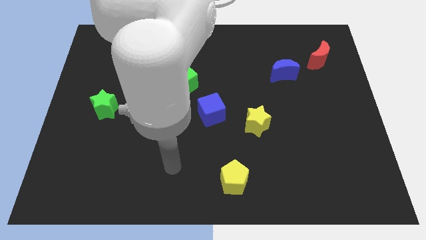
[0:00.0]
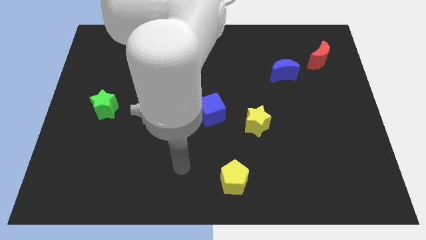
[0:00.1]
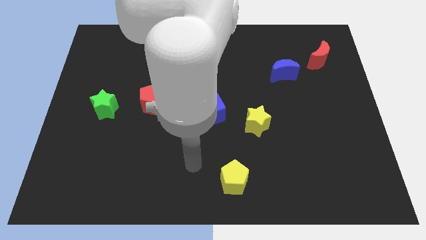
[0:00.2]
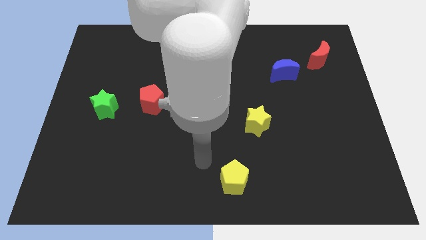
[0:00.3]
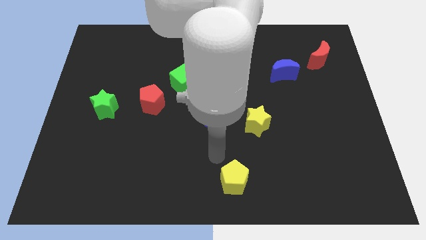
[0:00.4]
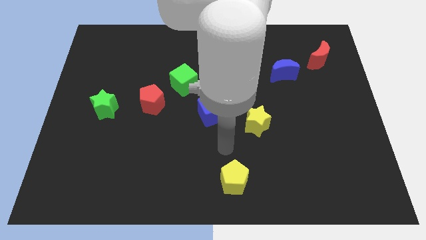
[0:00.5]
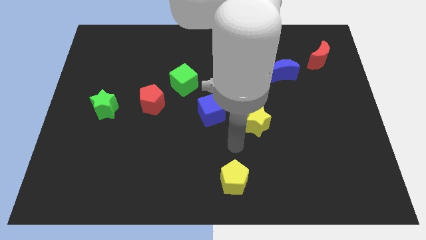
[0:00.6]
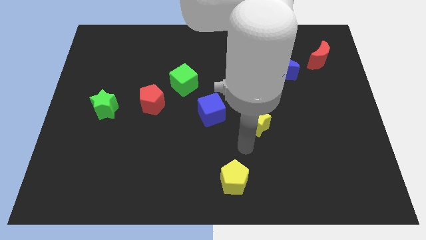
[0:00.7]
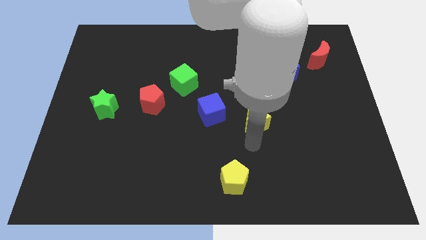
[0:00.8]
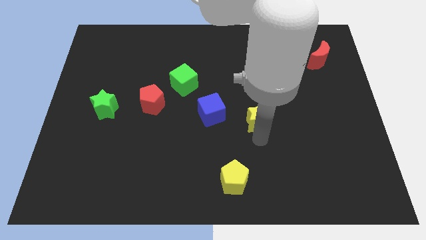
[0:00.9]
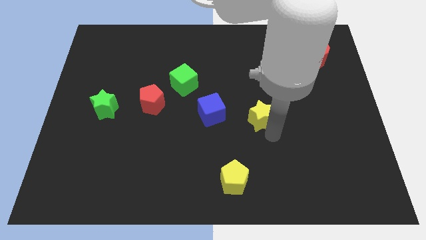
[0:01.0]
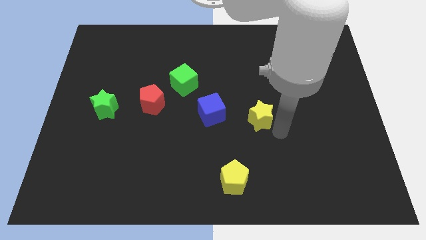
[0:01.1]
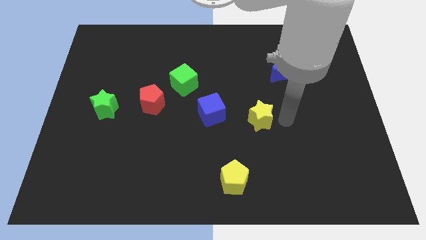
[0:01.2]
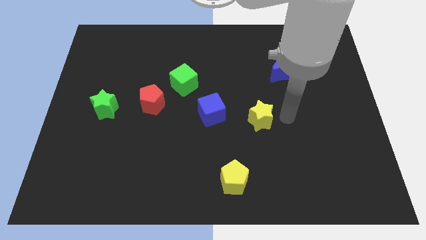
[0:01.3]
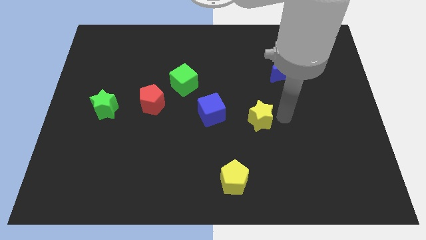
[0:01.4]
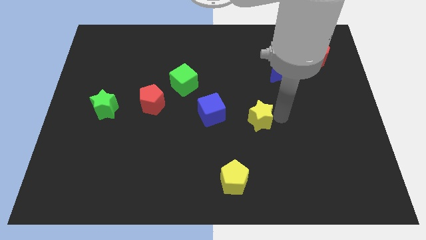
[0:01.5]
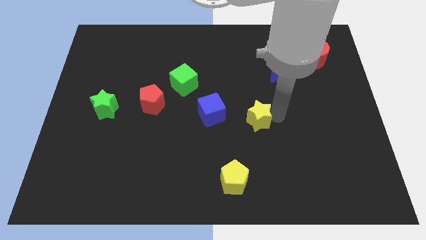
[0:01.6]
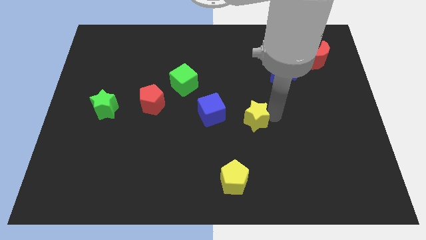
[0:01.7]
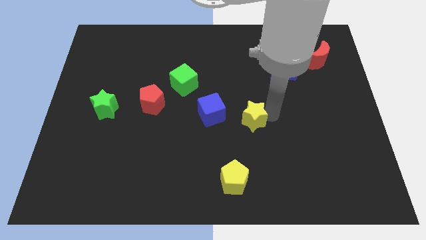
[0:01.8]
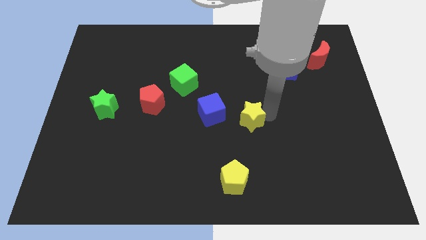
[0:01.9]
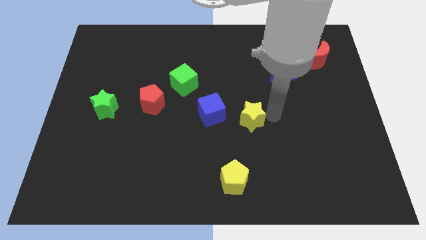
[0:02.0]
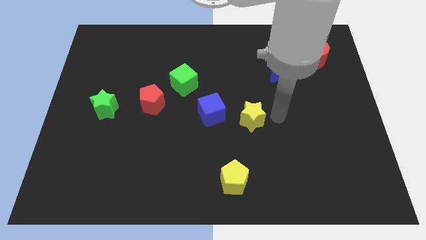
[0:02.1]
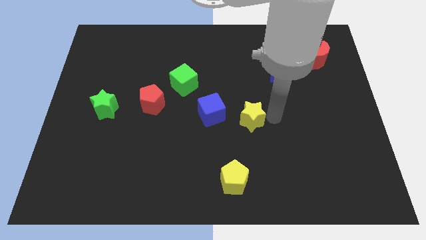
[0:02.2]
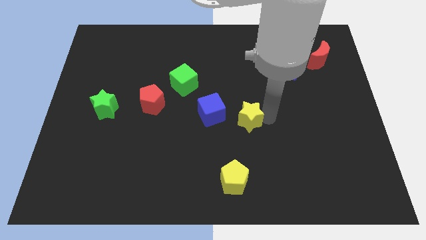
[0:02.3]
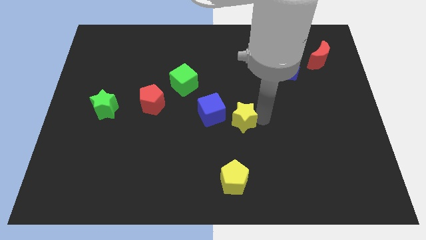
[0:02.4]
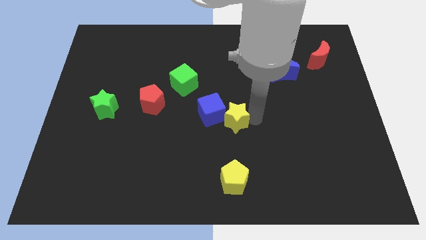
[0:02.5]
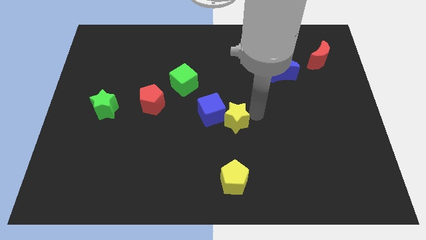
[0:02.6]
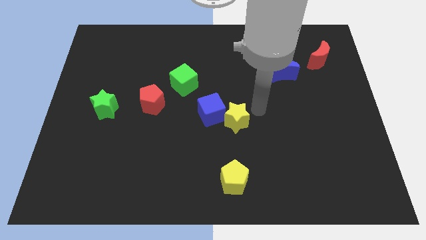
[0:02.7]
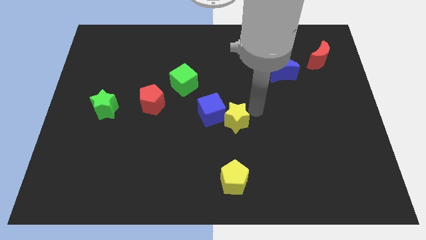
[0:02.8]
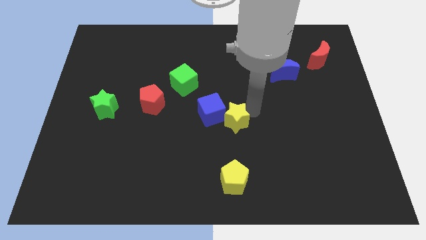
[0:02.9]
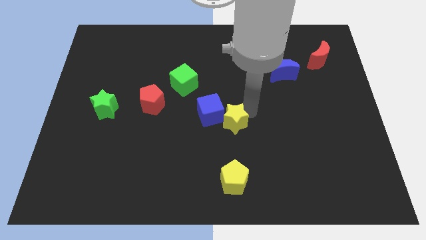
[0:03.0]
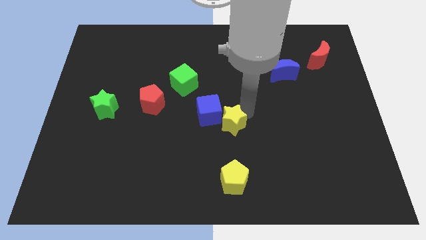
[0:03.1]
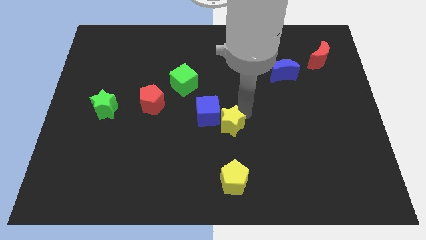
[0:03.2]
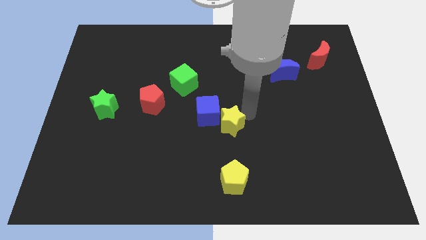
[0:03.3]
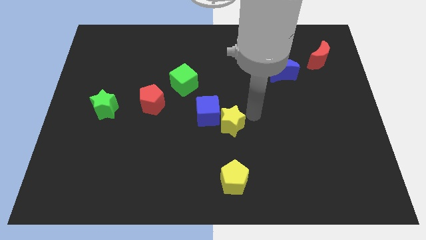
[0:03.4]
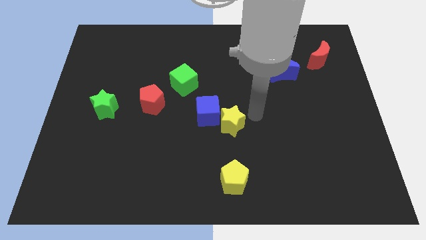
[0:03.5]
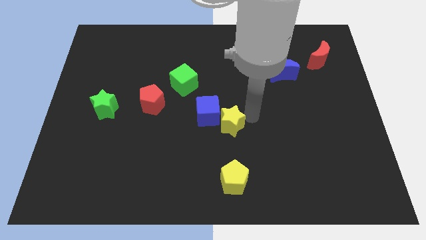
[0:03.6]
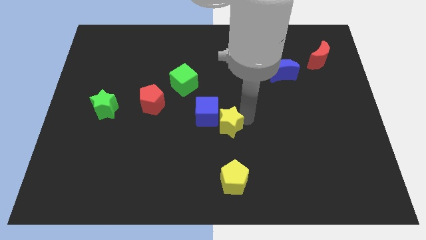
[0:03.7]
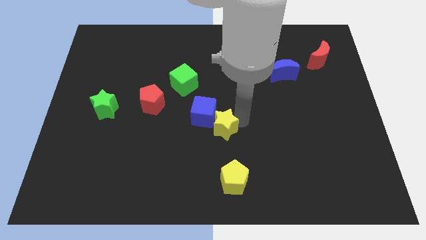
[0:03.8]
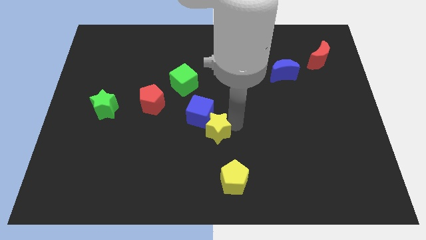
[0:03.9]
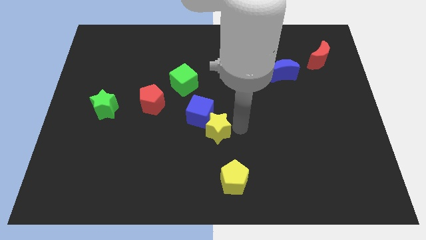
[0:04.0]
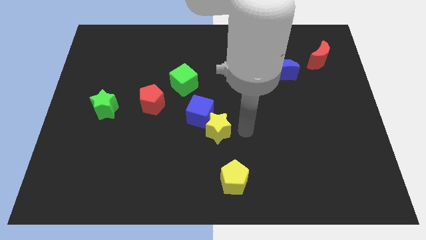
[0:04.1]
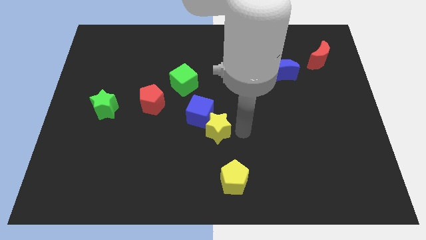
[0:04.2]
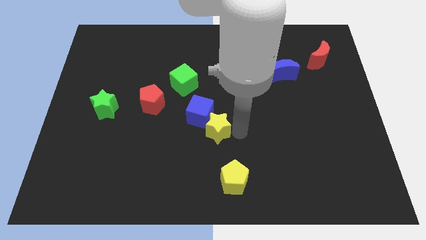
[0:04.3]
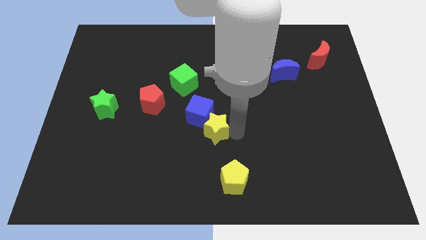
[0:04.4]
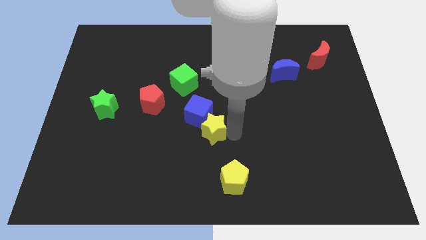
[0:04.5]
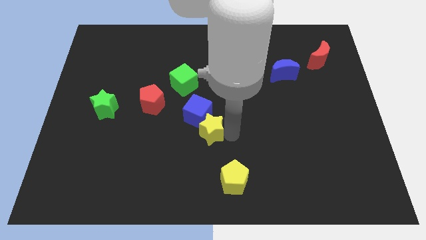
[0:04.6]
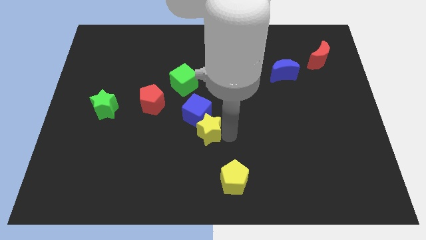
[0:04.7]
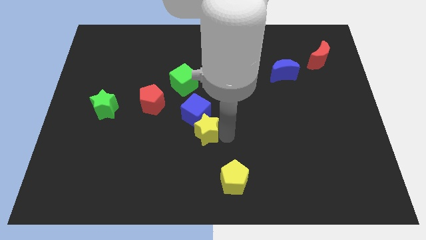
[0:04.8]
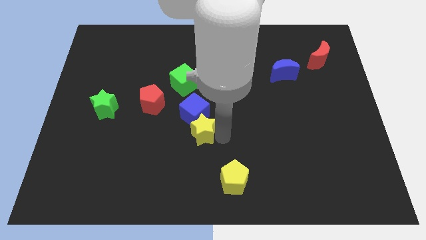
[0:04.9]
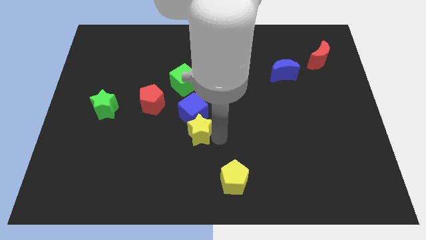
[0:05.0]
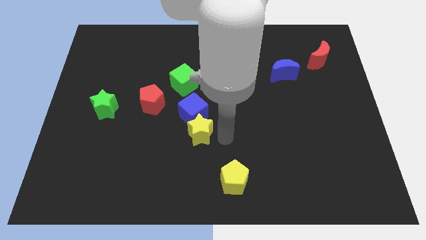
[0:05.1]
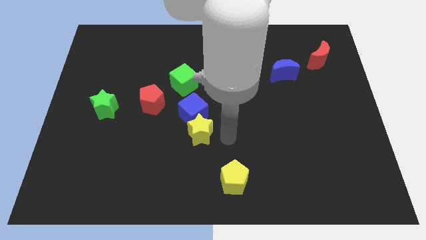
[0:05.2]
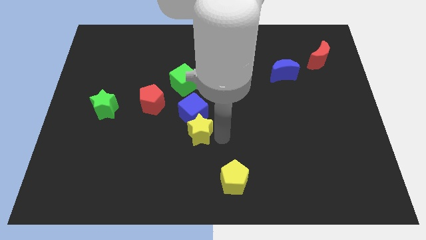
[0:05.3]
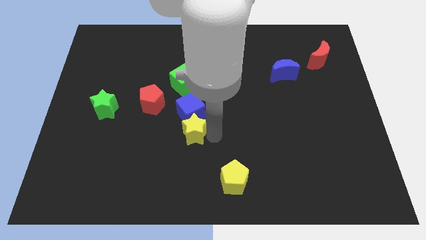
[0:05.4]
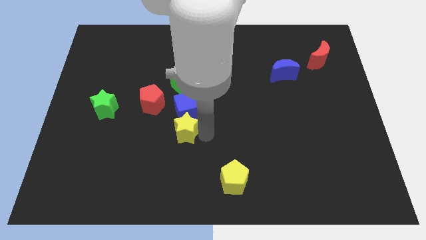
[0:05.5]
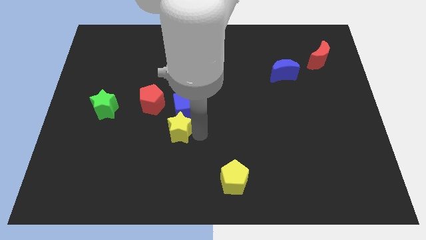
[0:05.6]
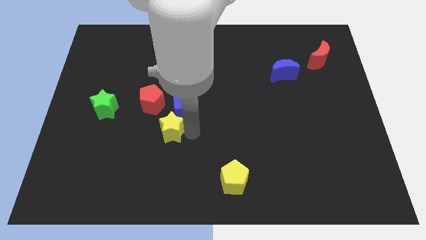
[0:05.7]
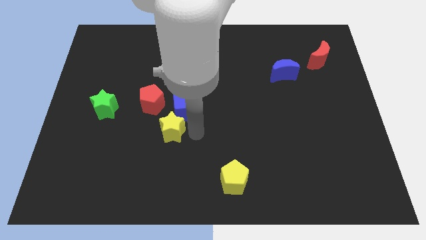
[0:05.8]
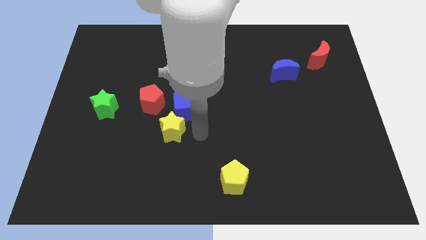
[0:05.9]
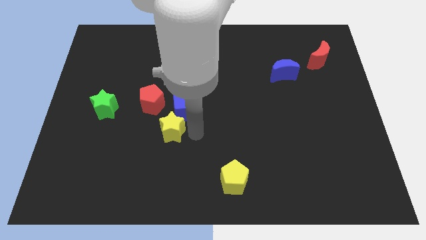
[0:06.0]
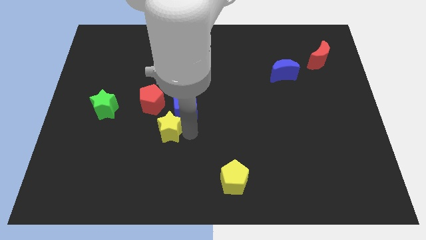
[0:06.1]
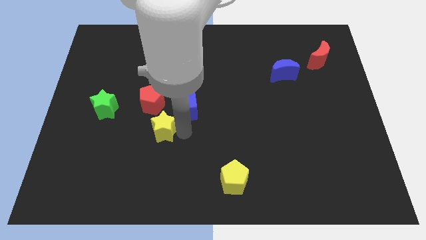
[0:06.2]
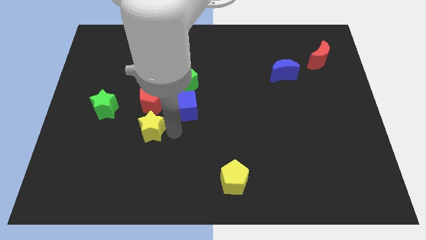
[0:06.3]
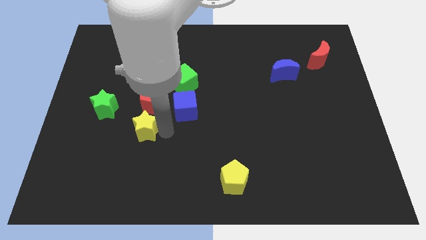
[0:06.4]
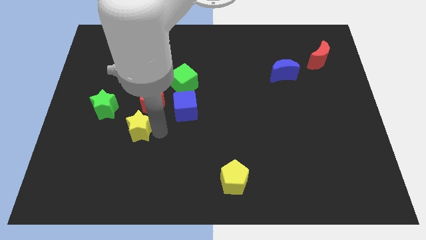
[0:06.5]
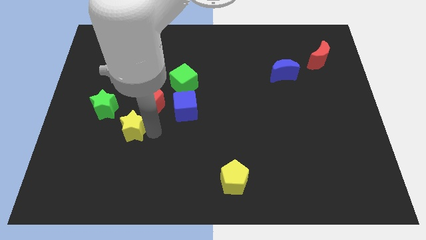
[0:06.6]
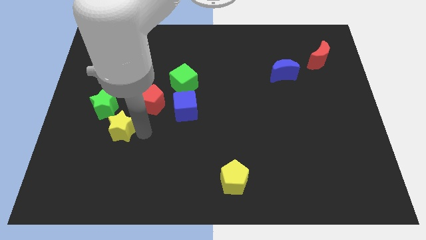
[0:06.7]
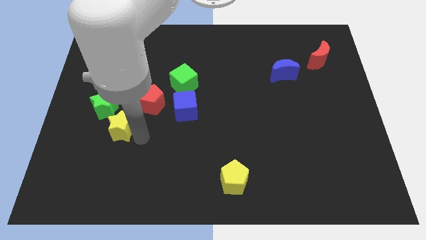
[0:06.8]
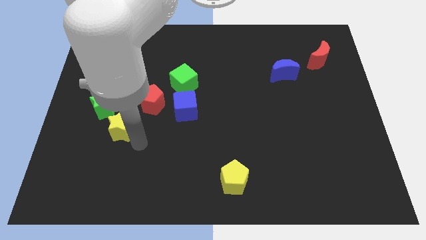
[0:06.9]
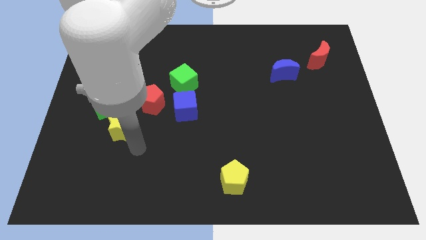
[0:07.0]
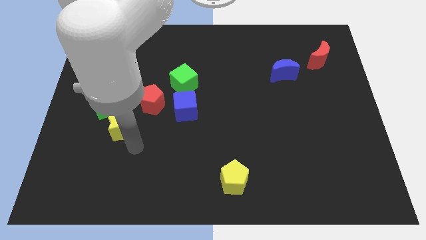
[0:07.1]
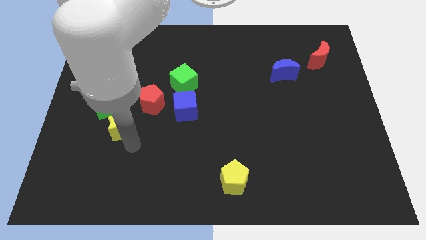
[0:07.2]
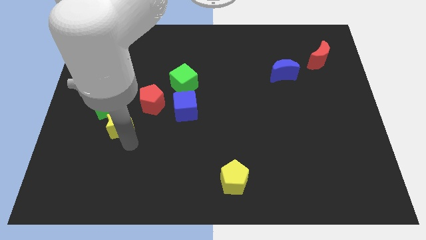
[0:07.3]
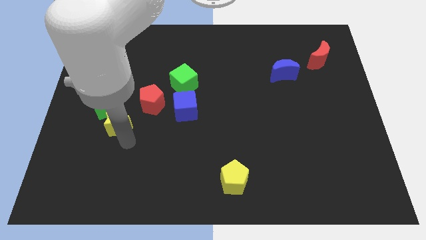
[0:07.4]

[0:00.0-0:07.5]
put the yellow star close to the green star

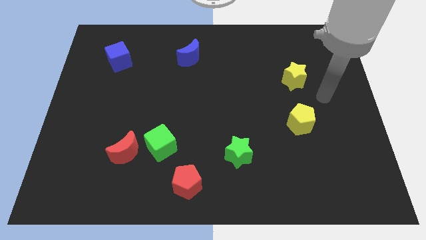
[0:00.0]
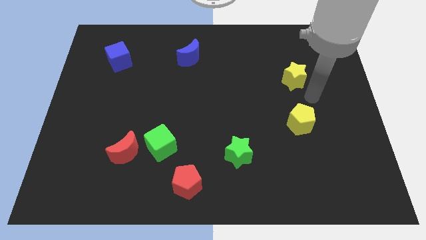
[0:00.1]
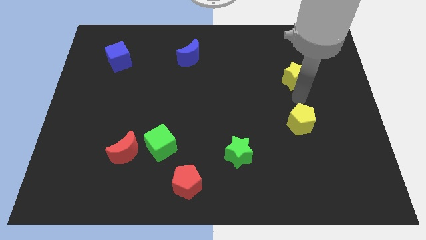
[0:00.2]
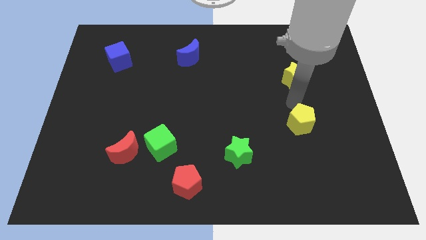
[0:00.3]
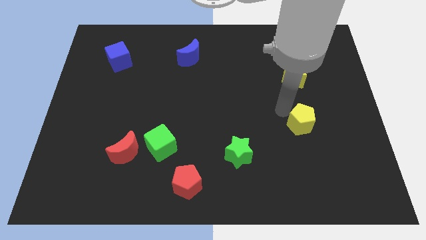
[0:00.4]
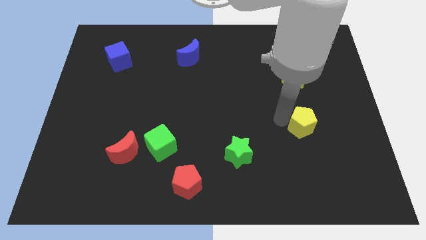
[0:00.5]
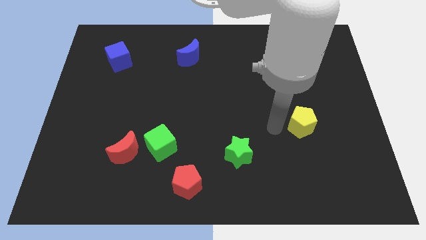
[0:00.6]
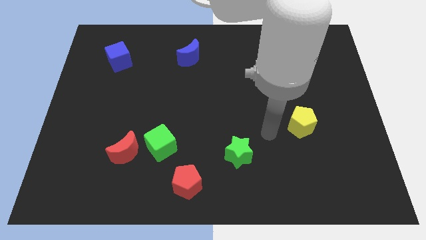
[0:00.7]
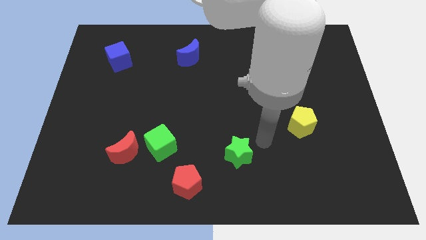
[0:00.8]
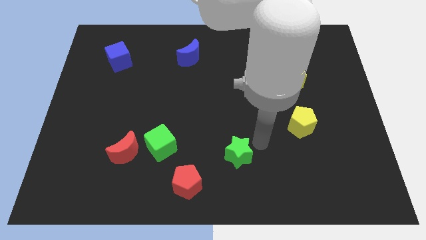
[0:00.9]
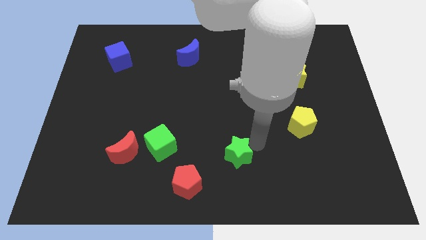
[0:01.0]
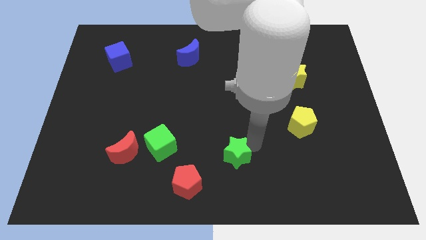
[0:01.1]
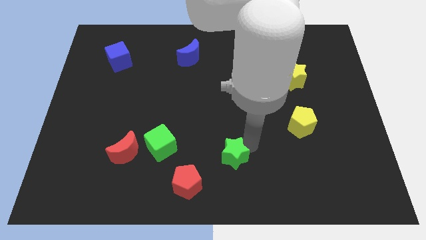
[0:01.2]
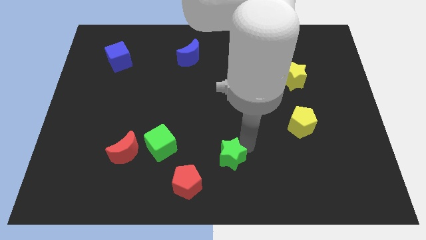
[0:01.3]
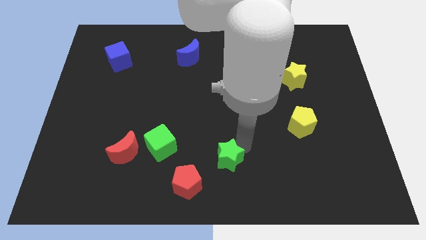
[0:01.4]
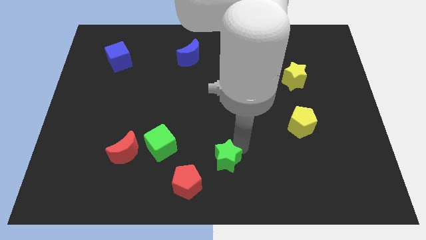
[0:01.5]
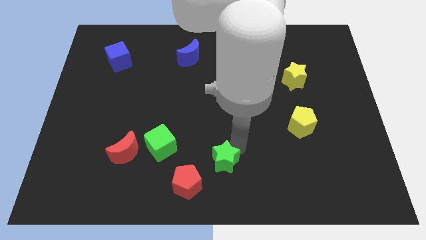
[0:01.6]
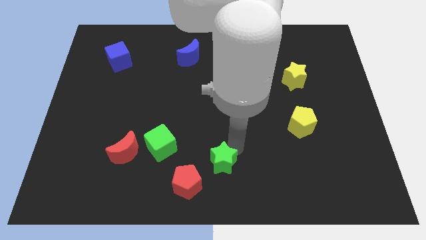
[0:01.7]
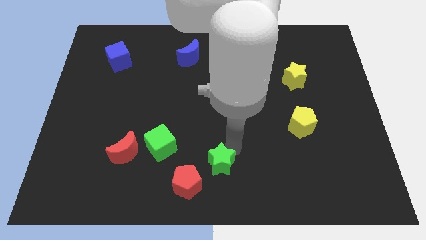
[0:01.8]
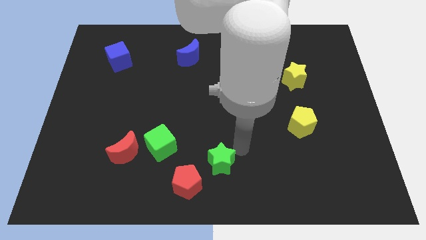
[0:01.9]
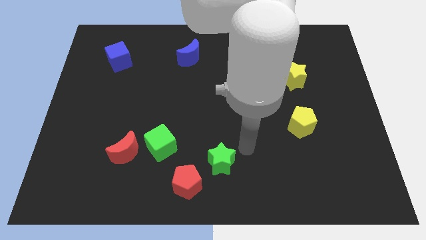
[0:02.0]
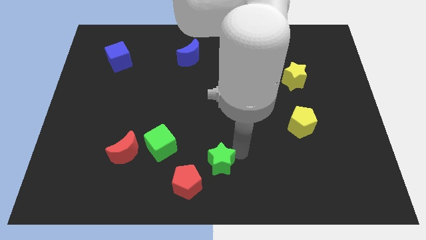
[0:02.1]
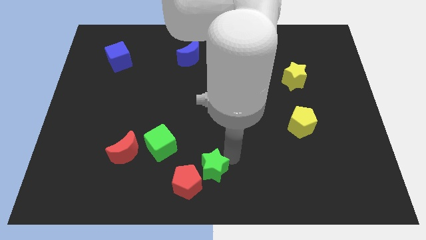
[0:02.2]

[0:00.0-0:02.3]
put the green star close to the red pentagon
